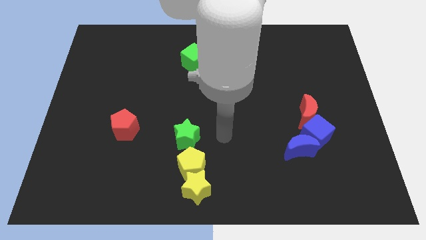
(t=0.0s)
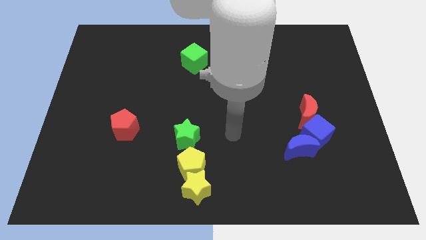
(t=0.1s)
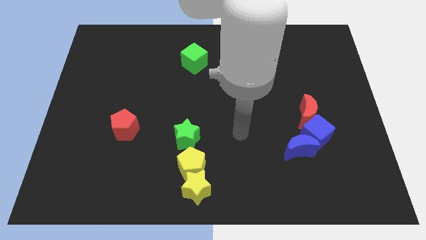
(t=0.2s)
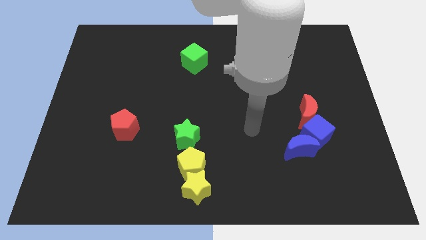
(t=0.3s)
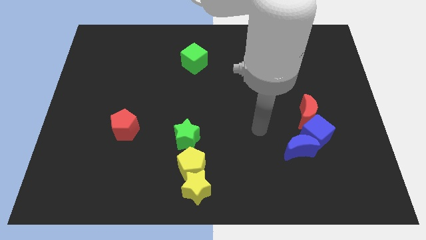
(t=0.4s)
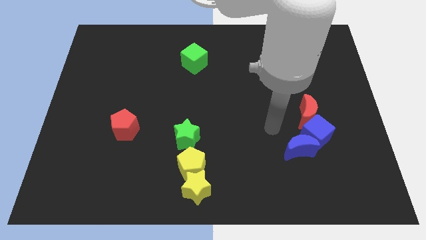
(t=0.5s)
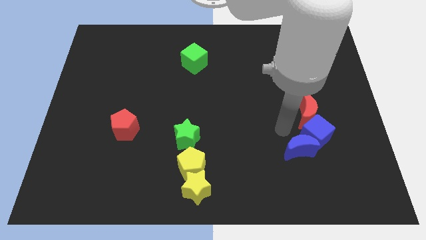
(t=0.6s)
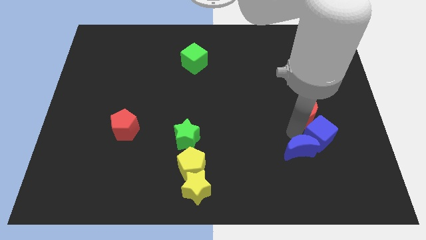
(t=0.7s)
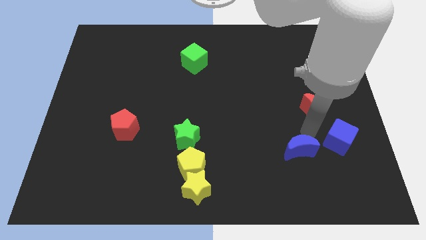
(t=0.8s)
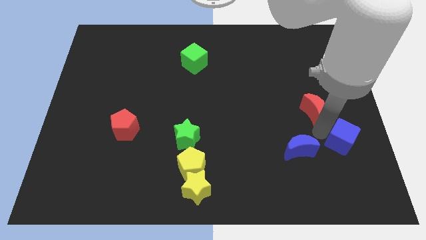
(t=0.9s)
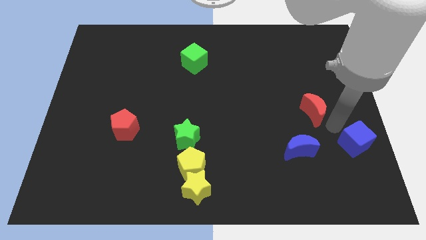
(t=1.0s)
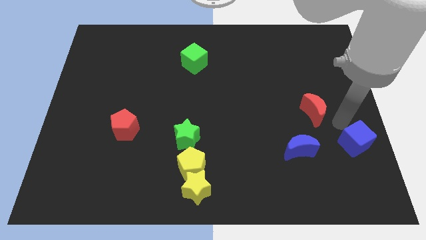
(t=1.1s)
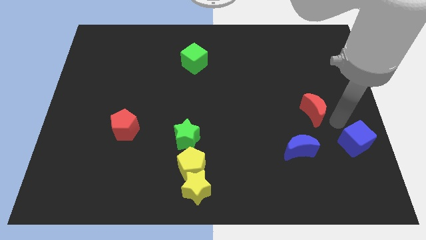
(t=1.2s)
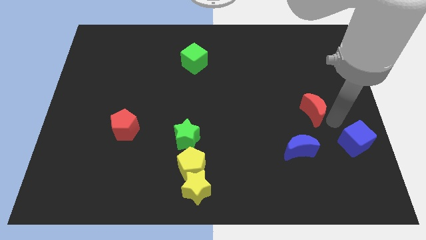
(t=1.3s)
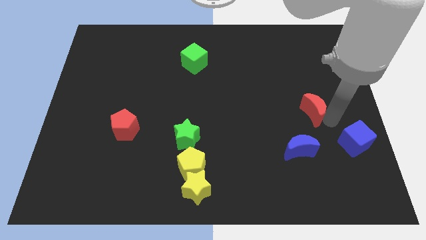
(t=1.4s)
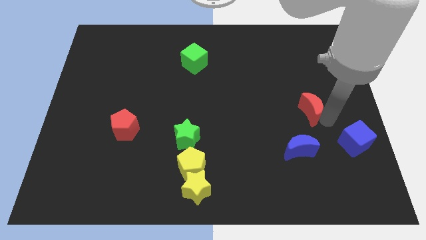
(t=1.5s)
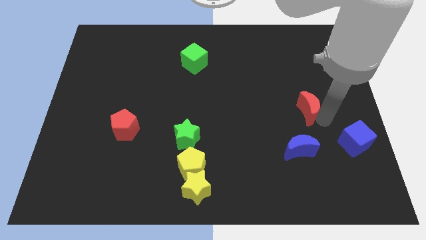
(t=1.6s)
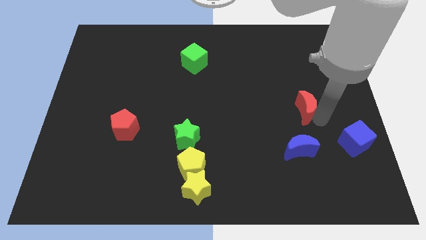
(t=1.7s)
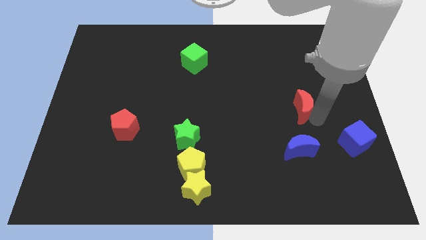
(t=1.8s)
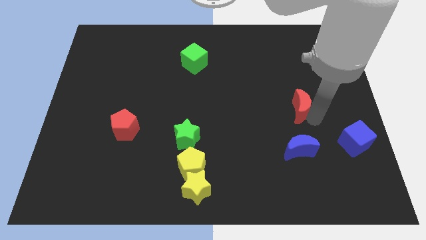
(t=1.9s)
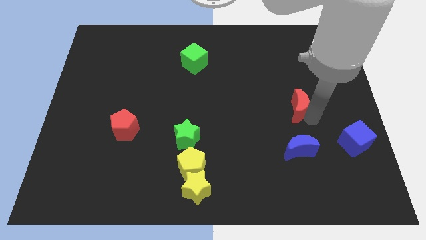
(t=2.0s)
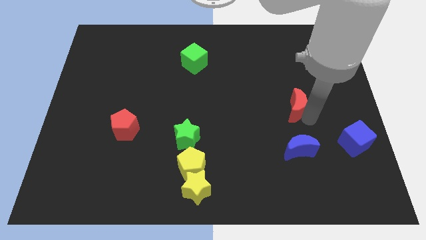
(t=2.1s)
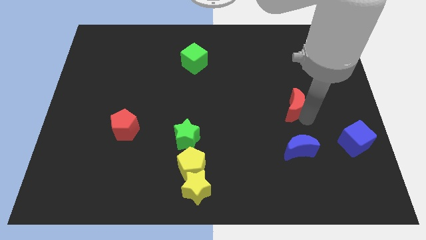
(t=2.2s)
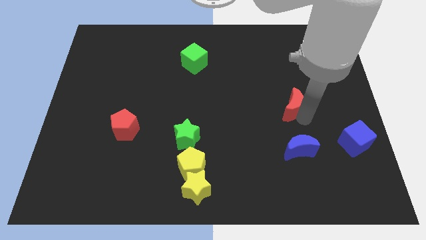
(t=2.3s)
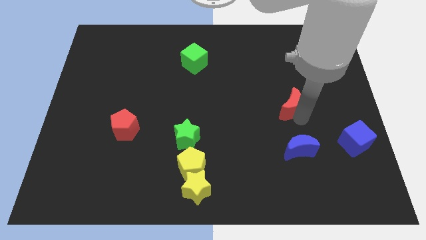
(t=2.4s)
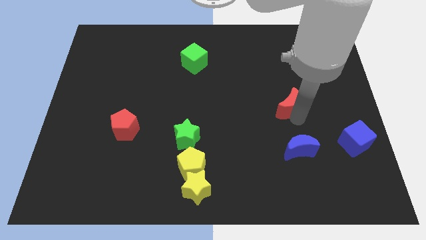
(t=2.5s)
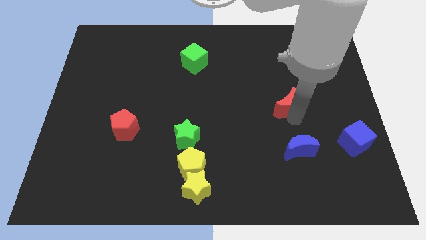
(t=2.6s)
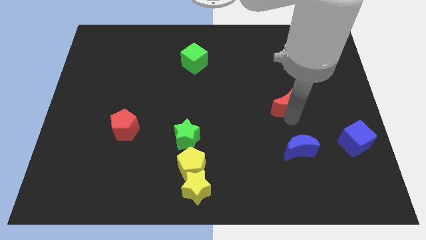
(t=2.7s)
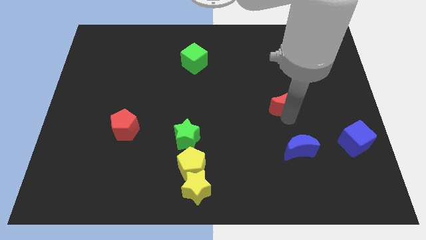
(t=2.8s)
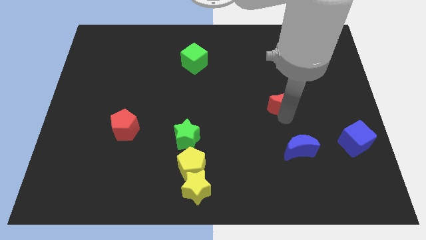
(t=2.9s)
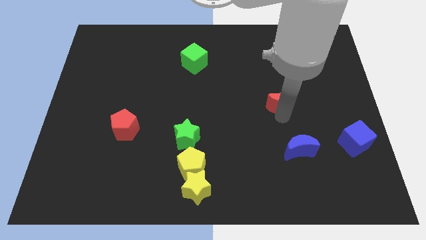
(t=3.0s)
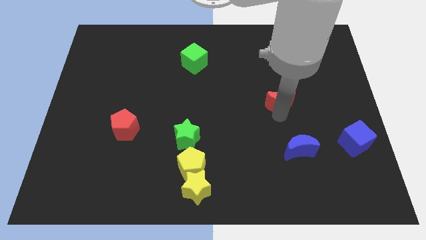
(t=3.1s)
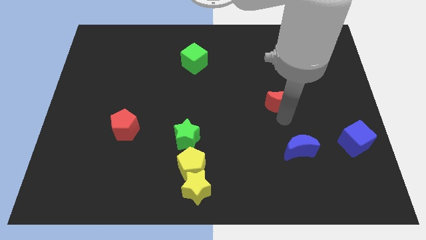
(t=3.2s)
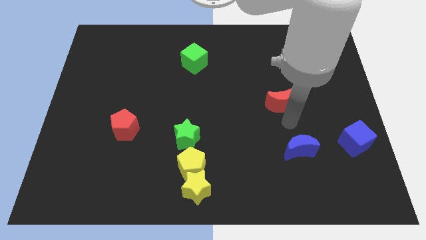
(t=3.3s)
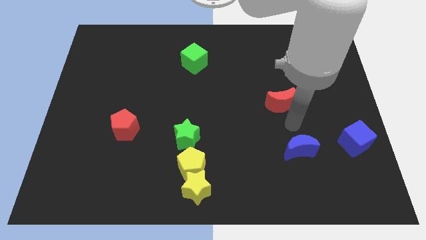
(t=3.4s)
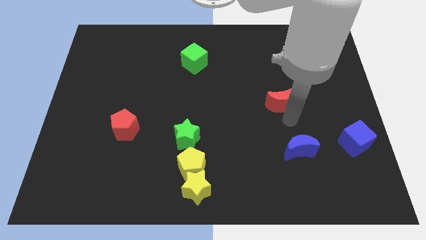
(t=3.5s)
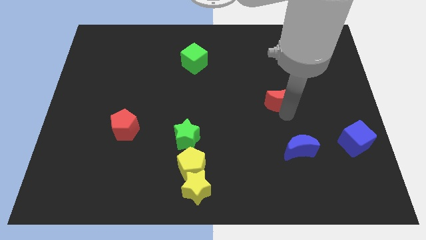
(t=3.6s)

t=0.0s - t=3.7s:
slightly slide the red moon upwards and then to the left

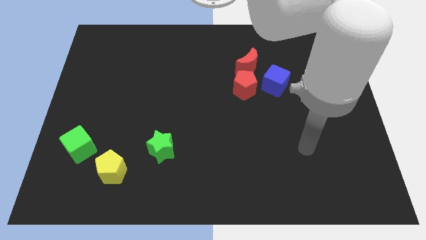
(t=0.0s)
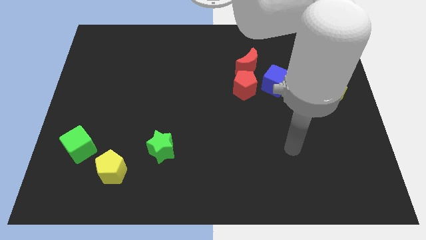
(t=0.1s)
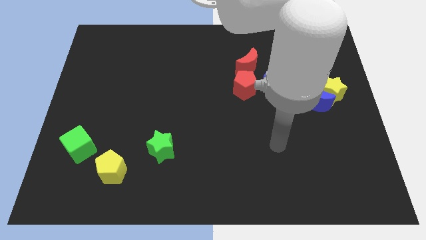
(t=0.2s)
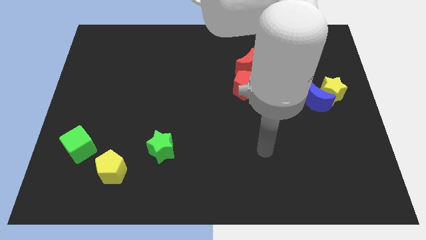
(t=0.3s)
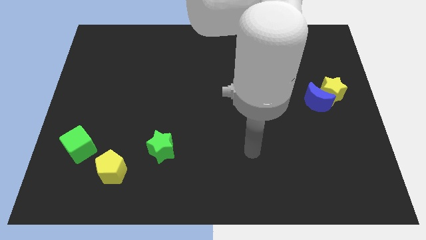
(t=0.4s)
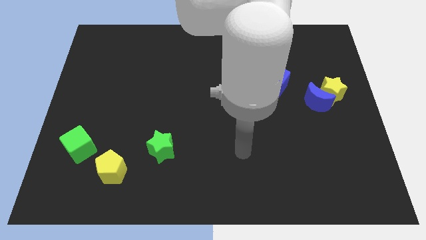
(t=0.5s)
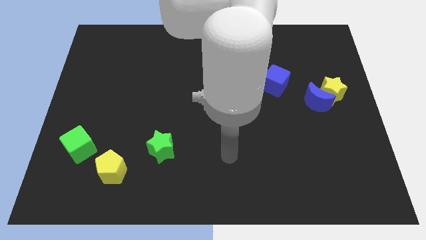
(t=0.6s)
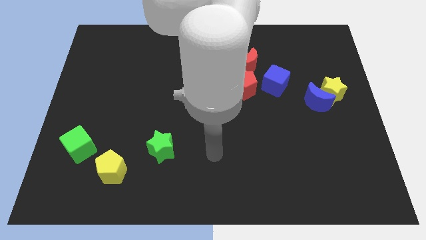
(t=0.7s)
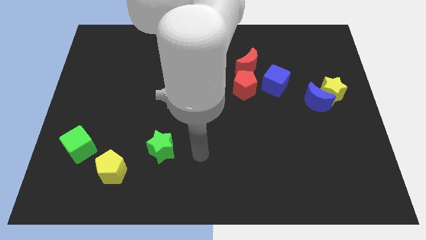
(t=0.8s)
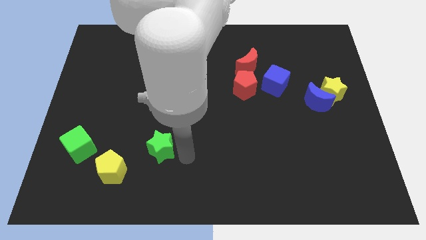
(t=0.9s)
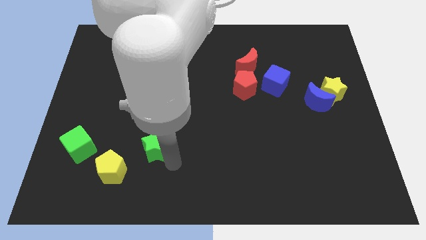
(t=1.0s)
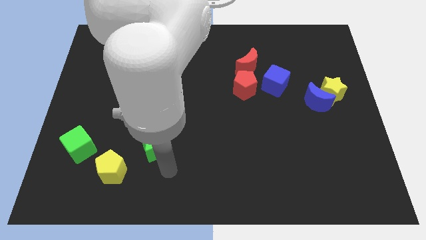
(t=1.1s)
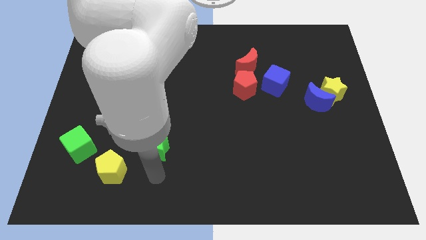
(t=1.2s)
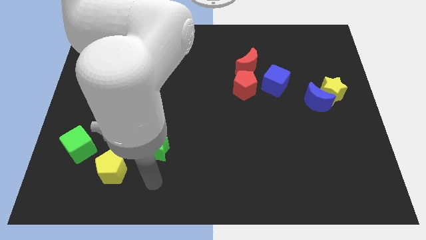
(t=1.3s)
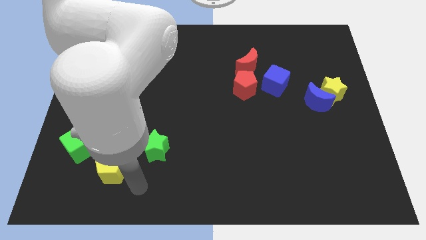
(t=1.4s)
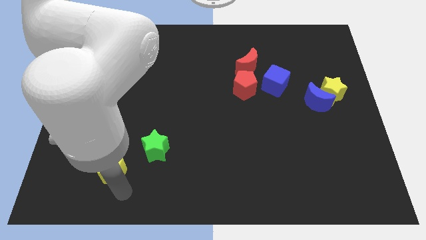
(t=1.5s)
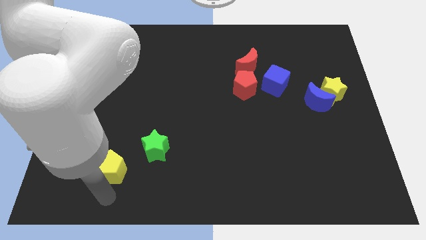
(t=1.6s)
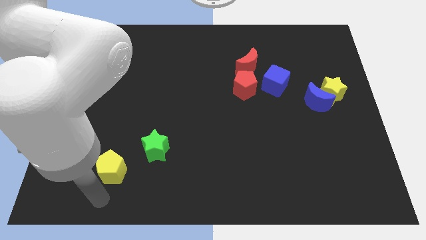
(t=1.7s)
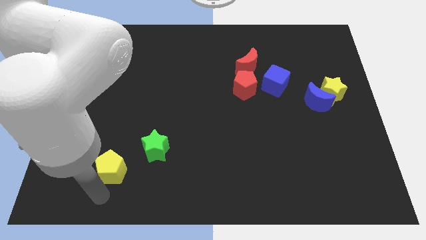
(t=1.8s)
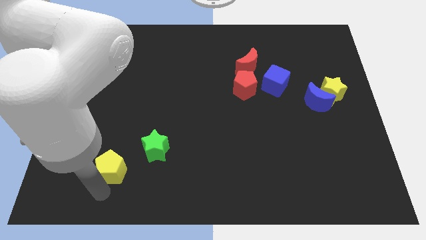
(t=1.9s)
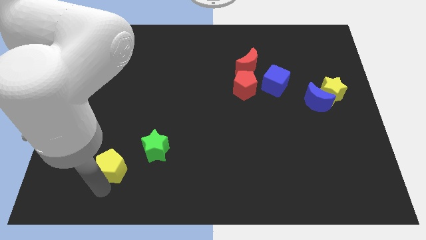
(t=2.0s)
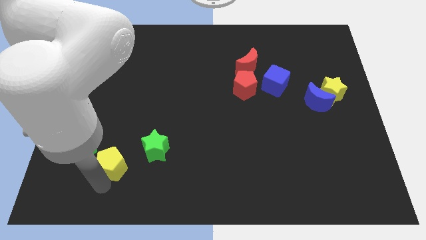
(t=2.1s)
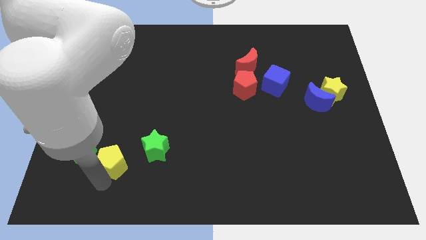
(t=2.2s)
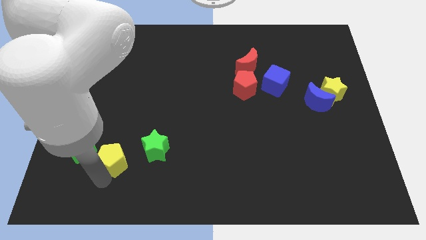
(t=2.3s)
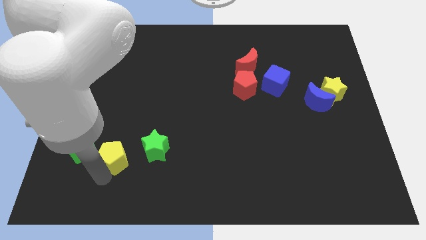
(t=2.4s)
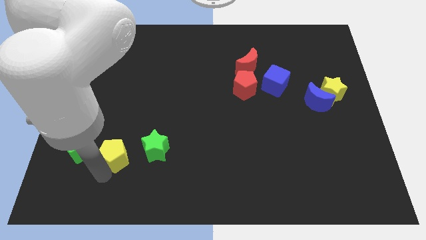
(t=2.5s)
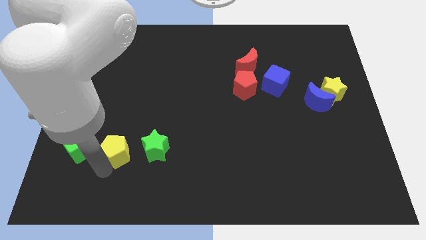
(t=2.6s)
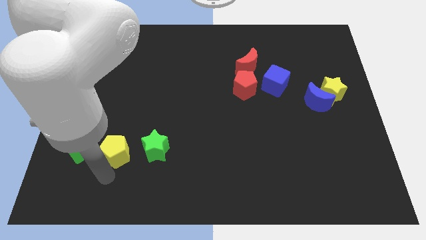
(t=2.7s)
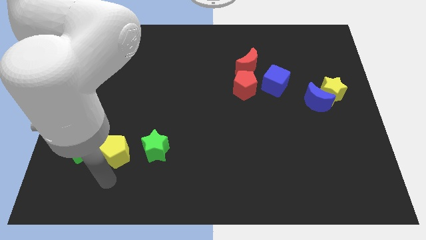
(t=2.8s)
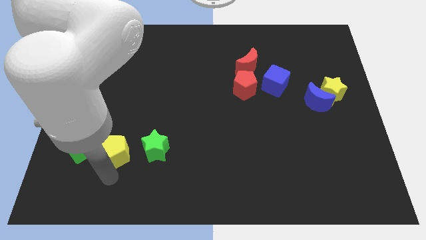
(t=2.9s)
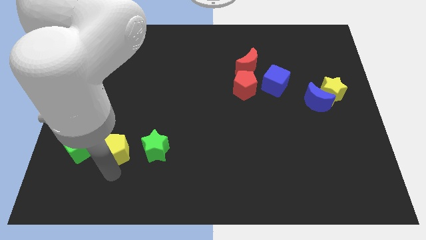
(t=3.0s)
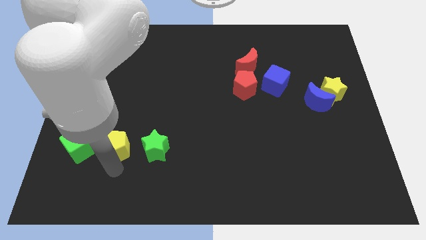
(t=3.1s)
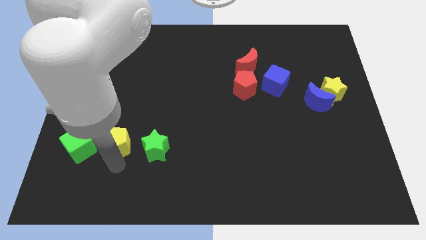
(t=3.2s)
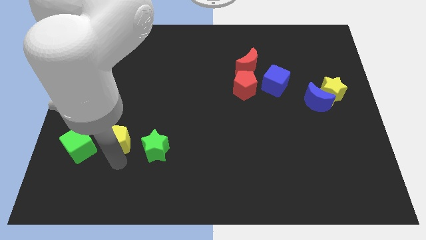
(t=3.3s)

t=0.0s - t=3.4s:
move the yellow pentagon somewhat upwards

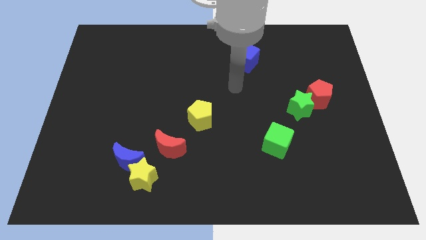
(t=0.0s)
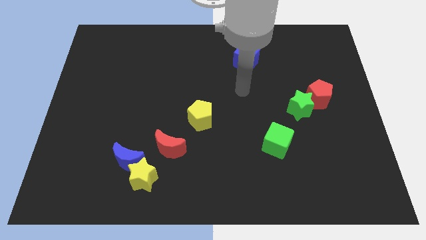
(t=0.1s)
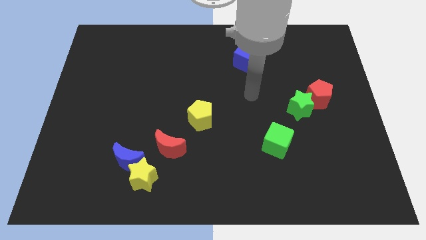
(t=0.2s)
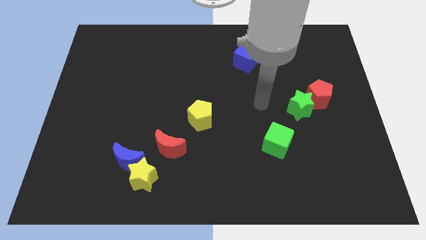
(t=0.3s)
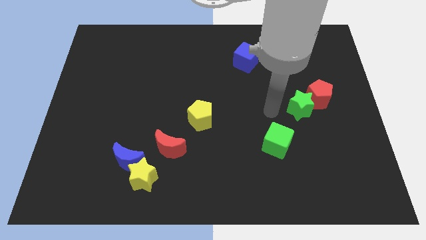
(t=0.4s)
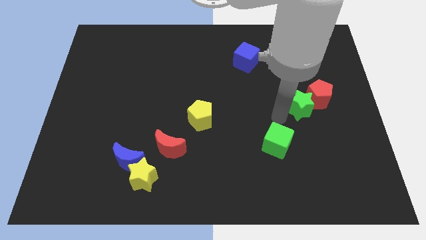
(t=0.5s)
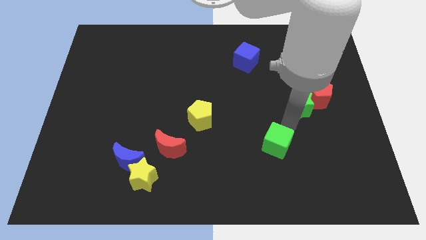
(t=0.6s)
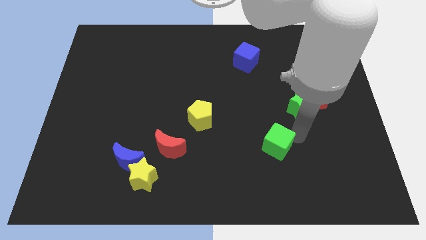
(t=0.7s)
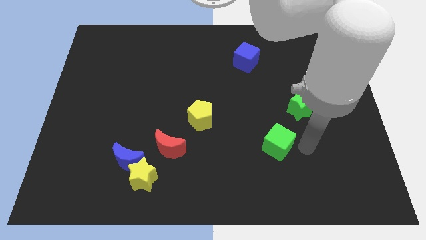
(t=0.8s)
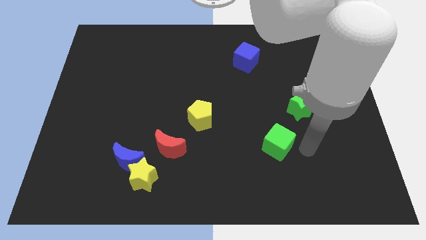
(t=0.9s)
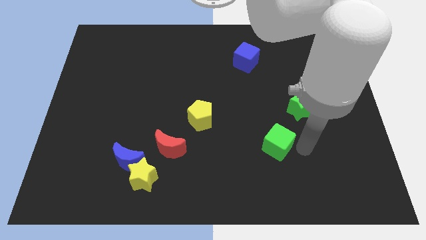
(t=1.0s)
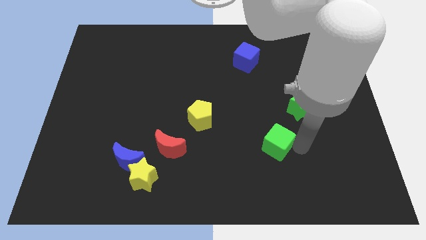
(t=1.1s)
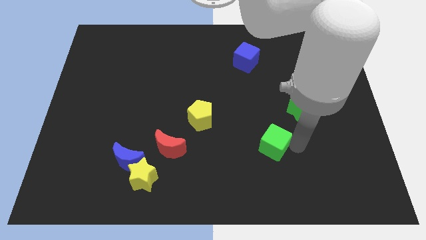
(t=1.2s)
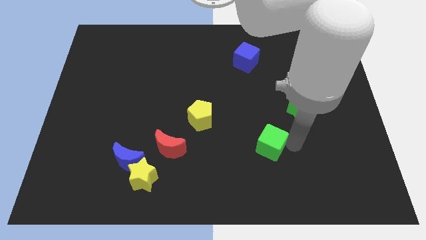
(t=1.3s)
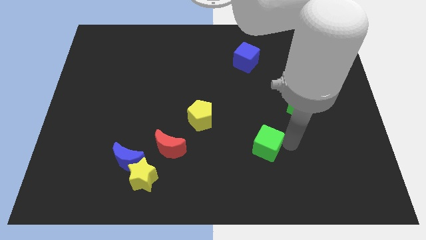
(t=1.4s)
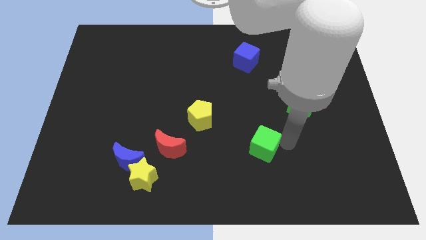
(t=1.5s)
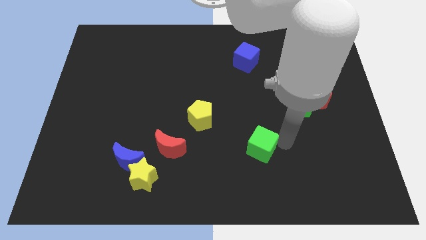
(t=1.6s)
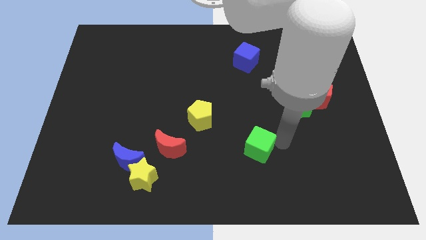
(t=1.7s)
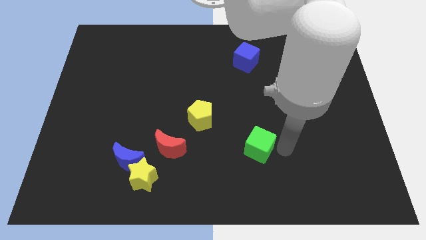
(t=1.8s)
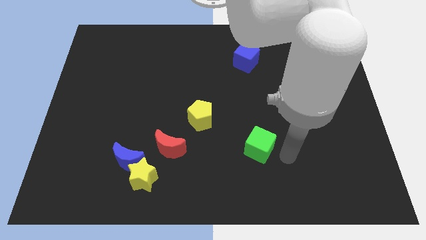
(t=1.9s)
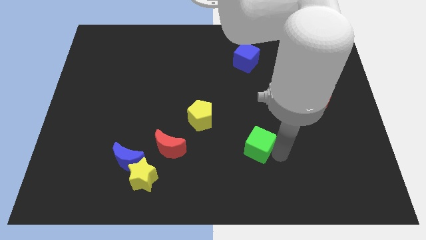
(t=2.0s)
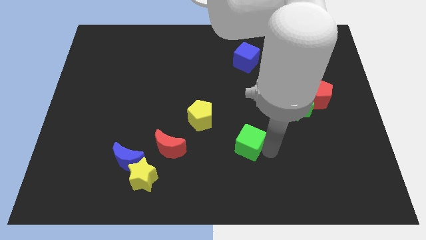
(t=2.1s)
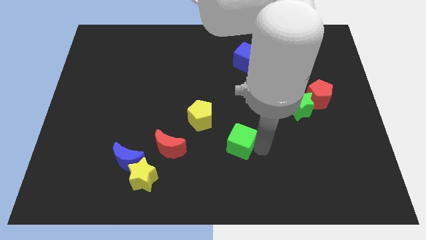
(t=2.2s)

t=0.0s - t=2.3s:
slightly slide the green cube left
